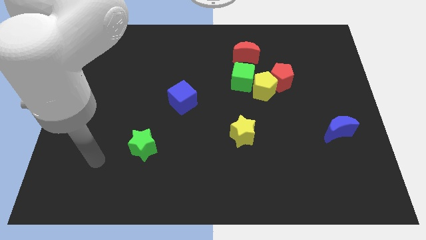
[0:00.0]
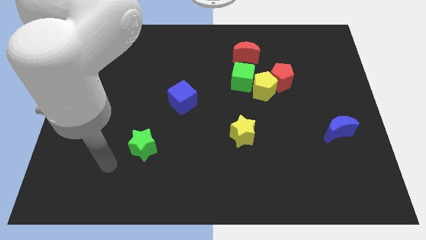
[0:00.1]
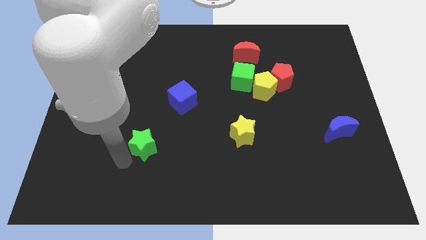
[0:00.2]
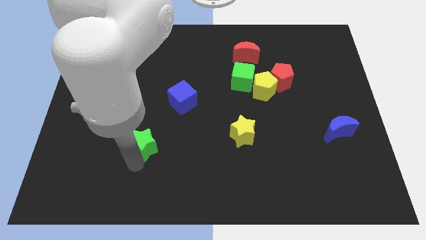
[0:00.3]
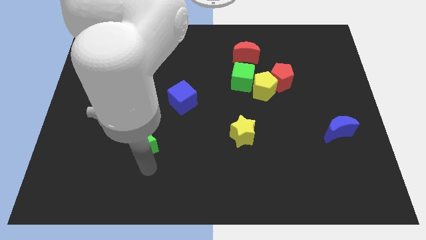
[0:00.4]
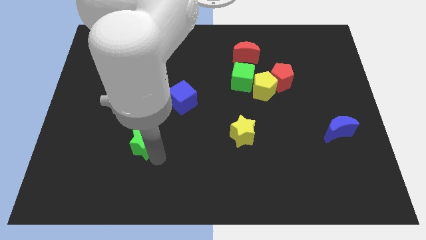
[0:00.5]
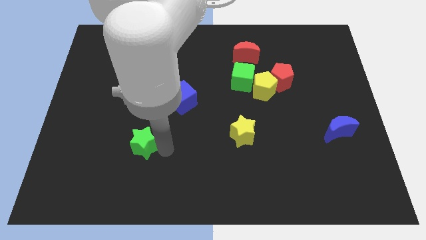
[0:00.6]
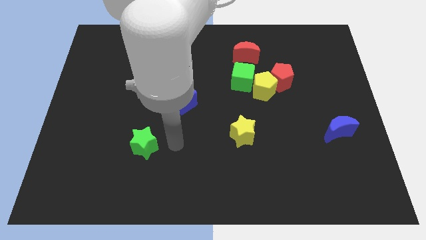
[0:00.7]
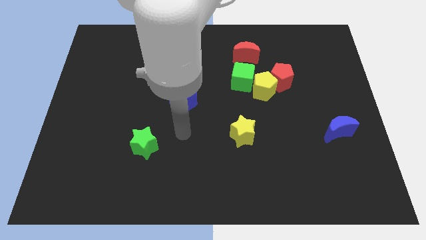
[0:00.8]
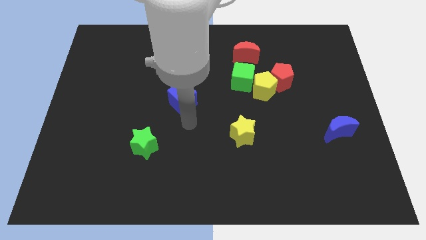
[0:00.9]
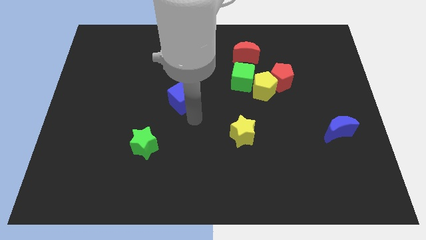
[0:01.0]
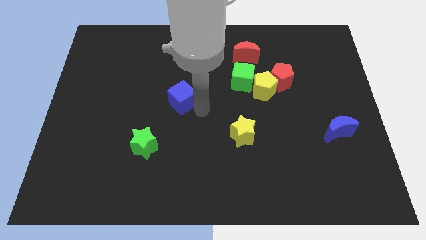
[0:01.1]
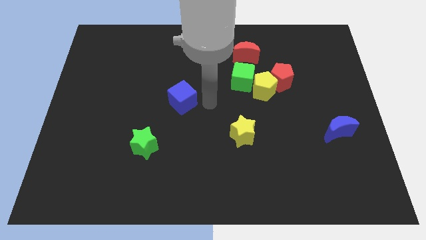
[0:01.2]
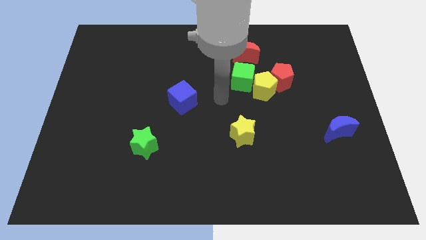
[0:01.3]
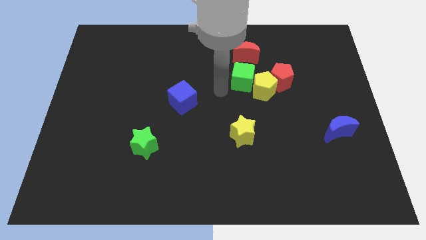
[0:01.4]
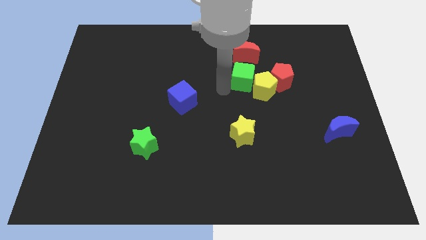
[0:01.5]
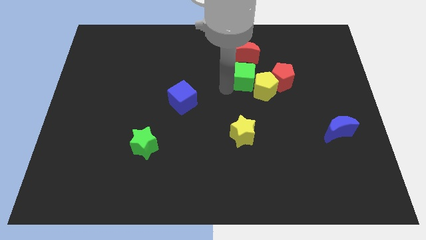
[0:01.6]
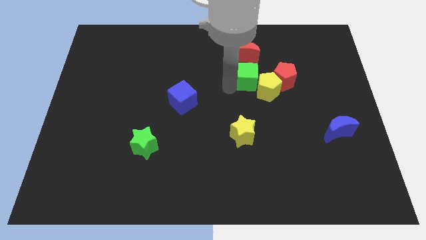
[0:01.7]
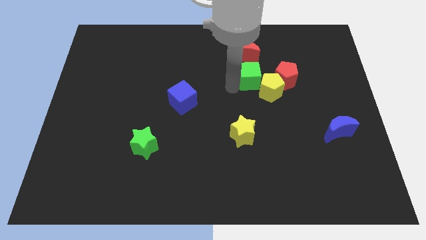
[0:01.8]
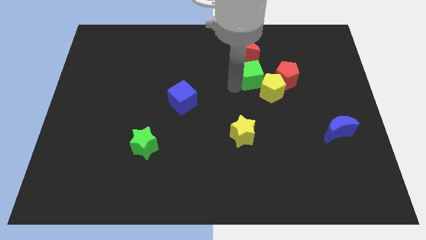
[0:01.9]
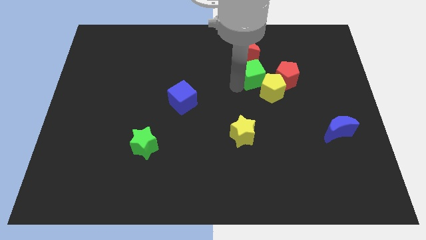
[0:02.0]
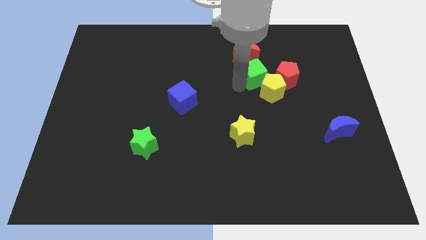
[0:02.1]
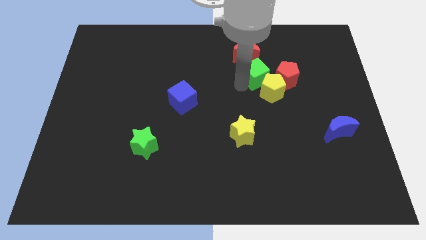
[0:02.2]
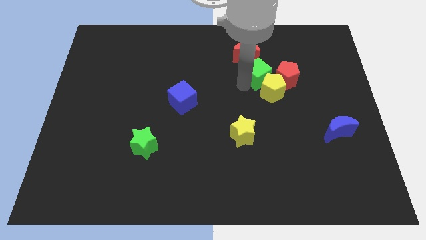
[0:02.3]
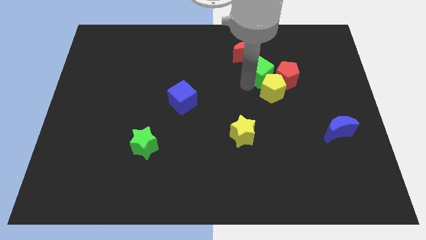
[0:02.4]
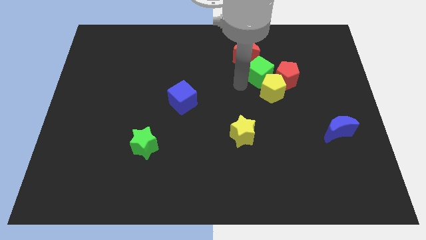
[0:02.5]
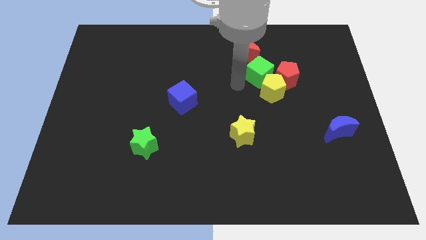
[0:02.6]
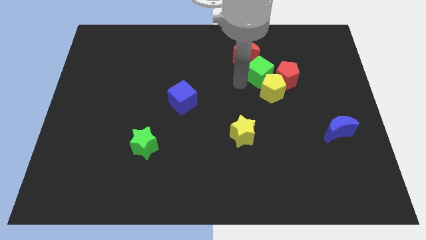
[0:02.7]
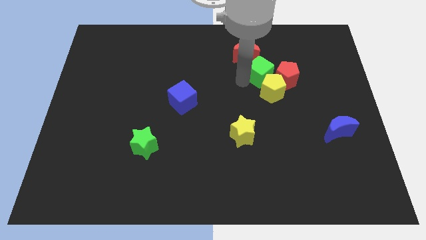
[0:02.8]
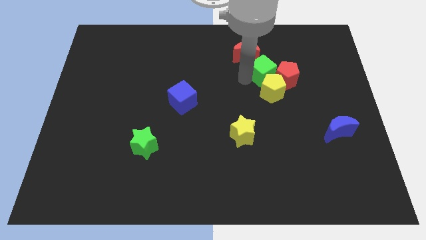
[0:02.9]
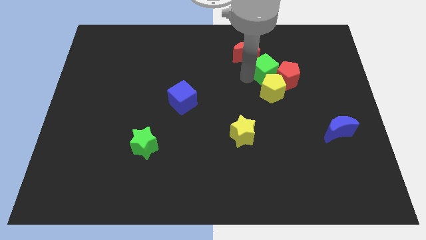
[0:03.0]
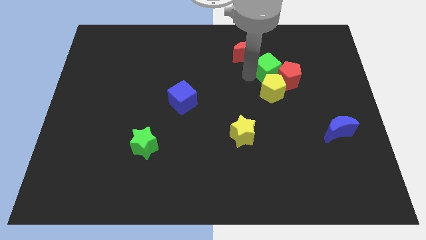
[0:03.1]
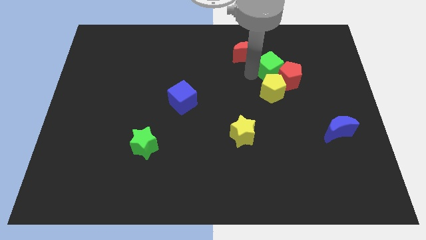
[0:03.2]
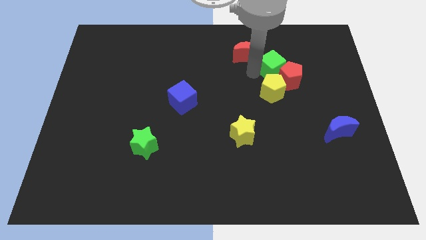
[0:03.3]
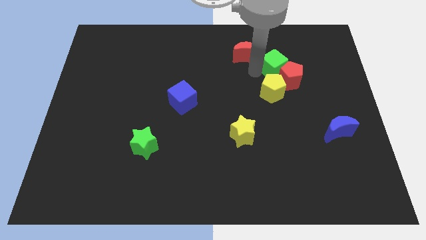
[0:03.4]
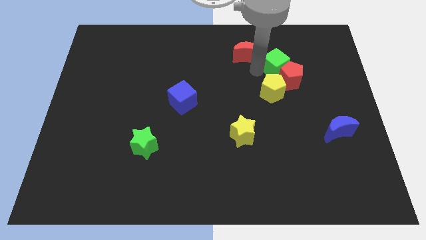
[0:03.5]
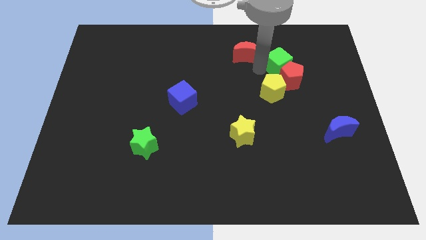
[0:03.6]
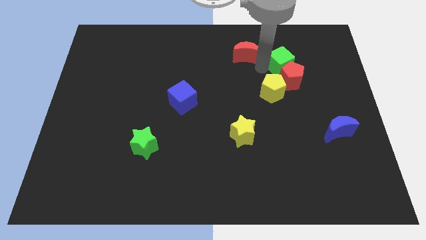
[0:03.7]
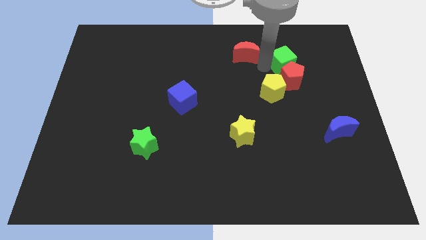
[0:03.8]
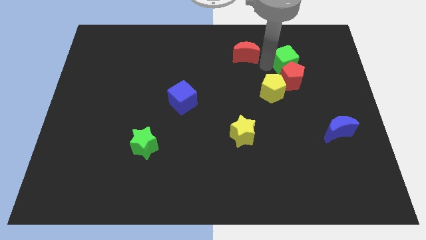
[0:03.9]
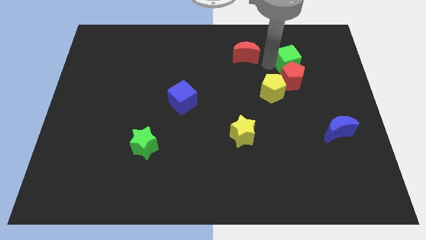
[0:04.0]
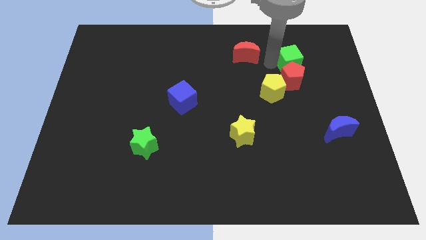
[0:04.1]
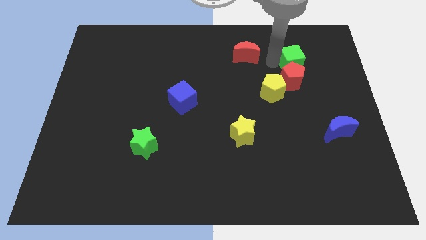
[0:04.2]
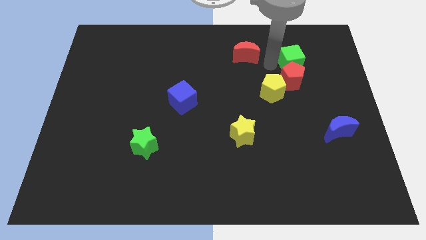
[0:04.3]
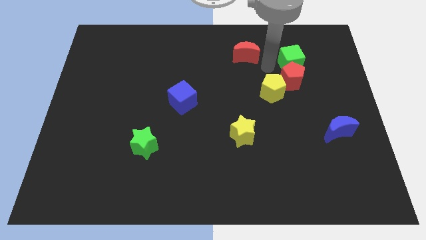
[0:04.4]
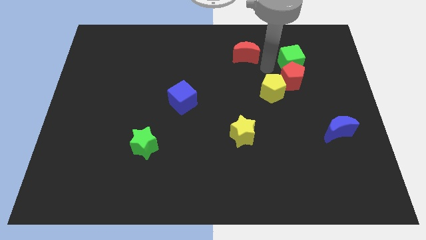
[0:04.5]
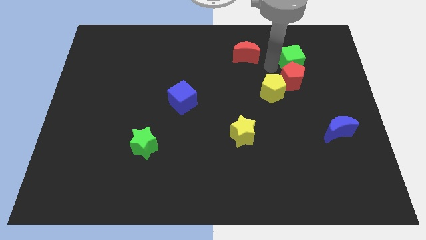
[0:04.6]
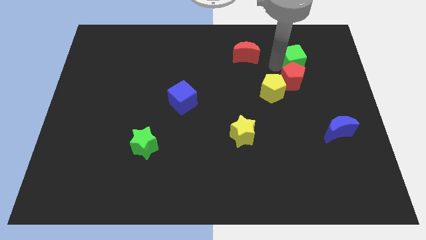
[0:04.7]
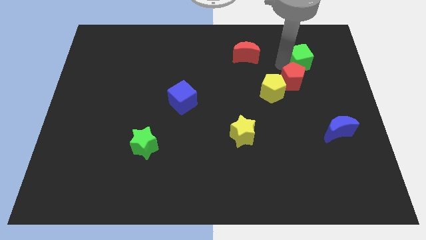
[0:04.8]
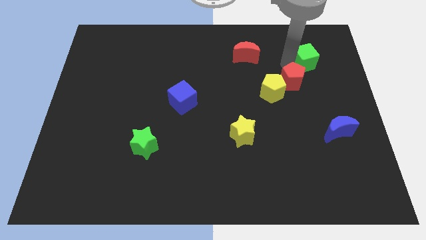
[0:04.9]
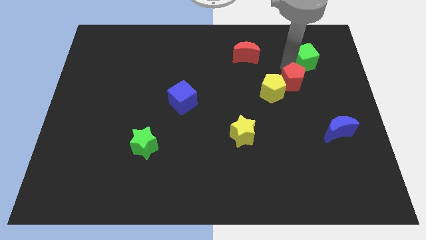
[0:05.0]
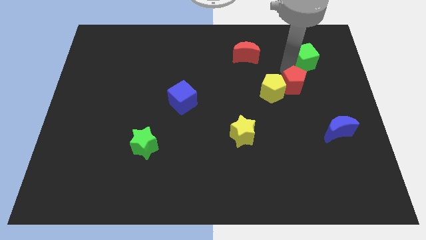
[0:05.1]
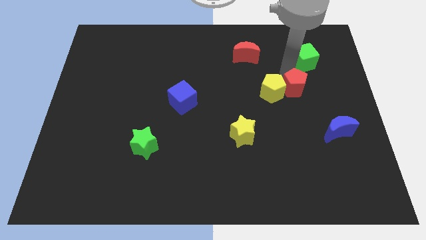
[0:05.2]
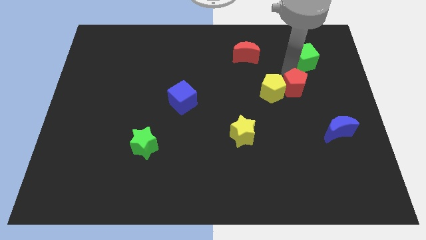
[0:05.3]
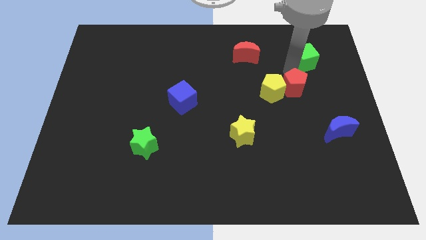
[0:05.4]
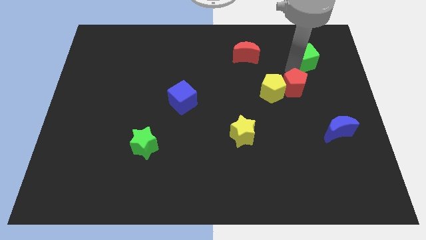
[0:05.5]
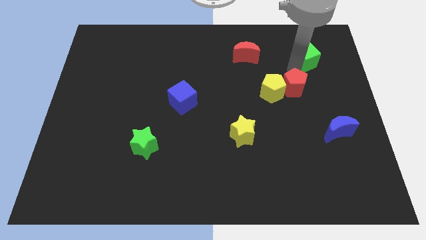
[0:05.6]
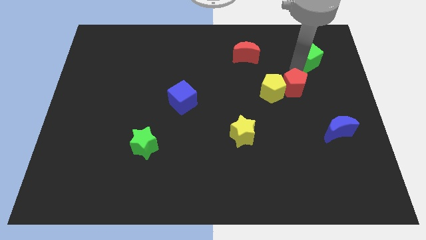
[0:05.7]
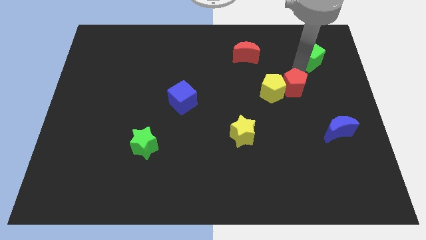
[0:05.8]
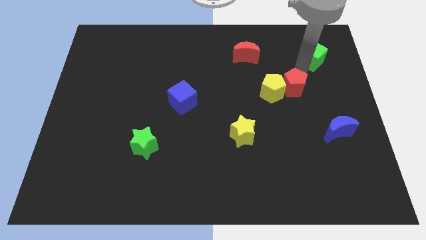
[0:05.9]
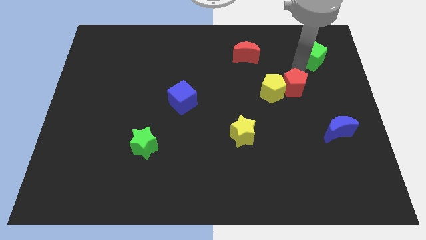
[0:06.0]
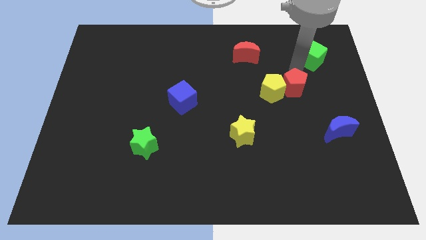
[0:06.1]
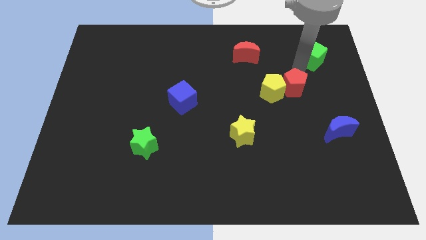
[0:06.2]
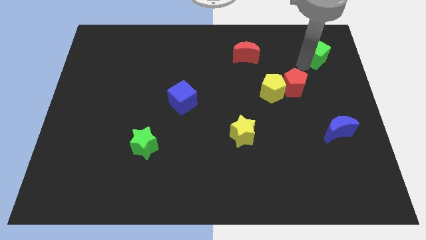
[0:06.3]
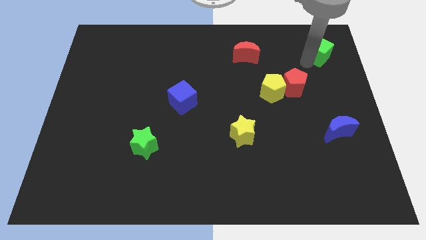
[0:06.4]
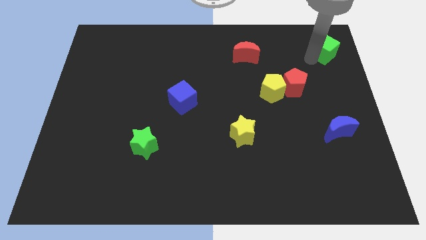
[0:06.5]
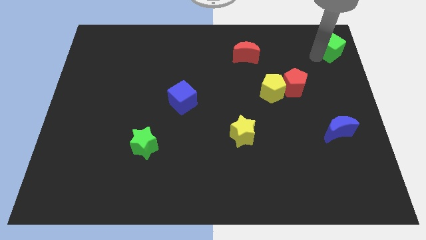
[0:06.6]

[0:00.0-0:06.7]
push the green cube to the top right
